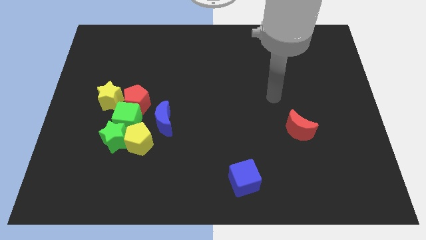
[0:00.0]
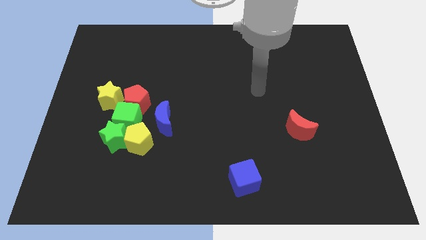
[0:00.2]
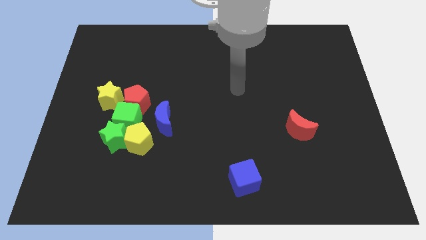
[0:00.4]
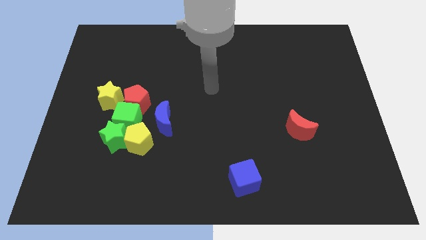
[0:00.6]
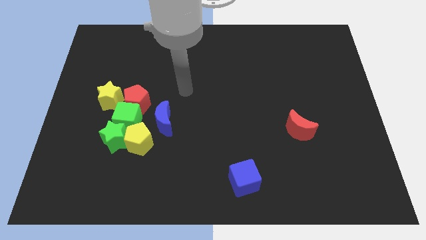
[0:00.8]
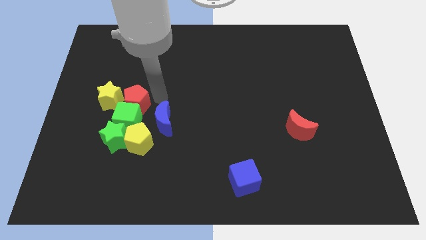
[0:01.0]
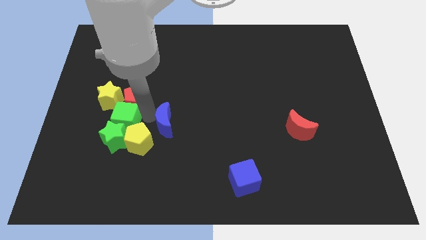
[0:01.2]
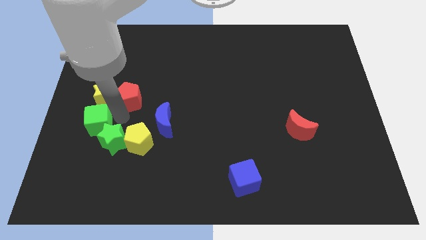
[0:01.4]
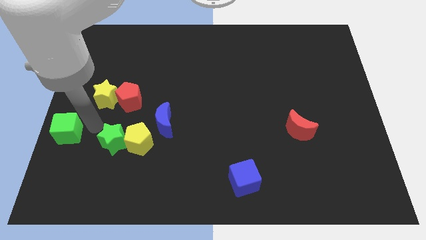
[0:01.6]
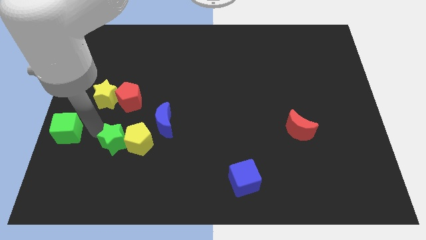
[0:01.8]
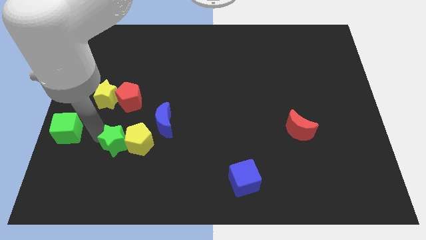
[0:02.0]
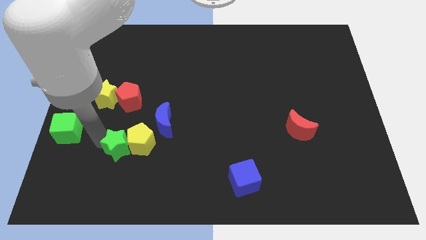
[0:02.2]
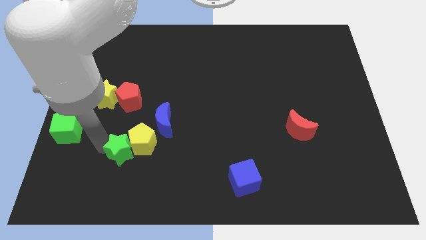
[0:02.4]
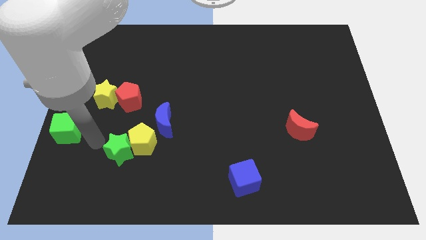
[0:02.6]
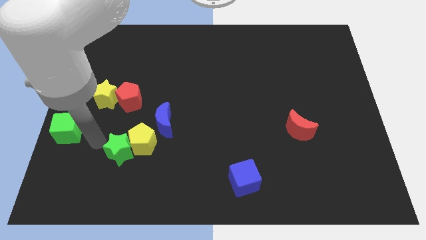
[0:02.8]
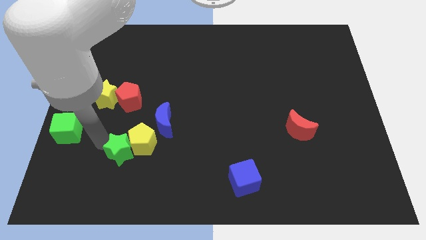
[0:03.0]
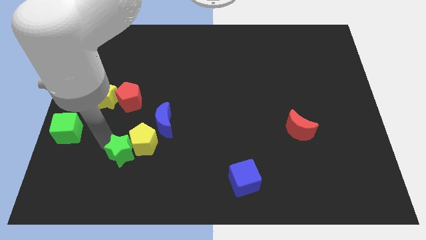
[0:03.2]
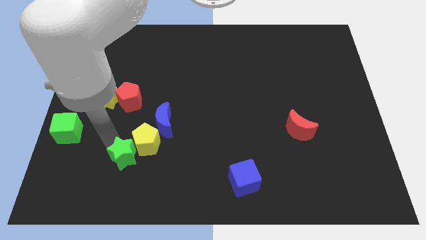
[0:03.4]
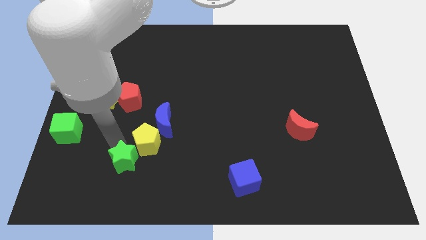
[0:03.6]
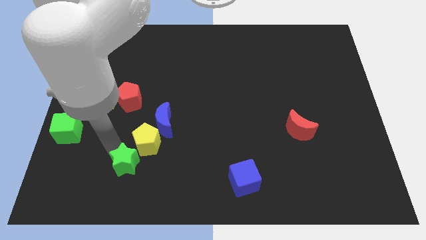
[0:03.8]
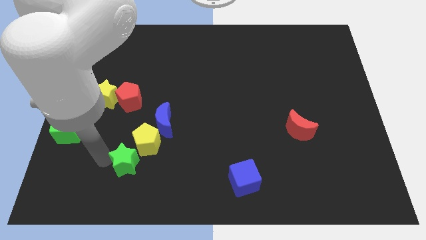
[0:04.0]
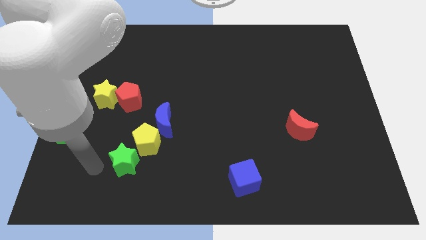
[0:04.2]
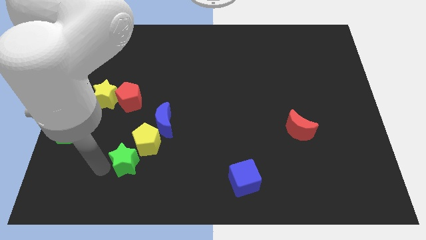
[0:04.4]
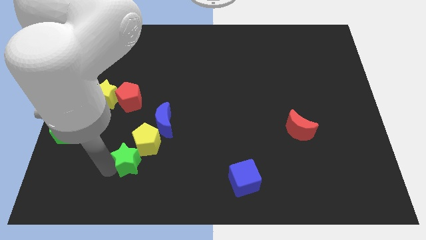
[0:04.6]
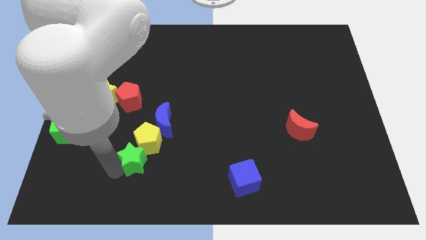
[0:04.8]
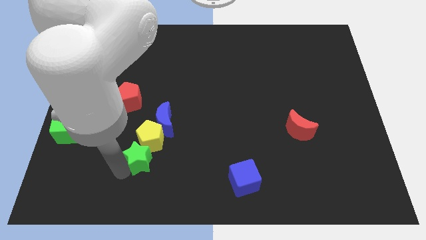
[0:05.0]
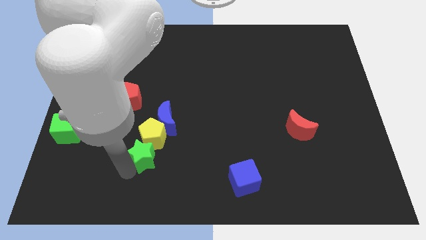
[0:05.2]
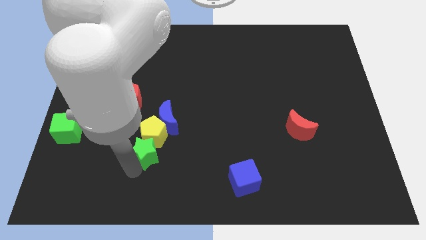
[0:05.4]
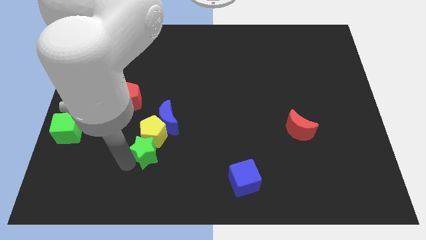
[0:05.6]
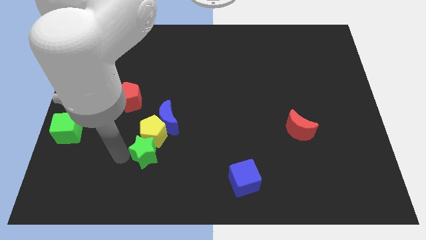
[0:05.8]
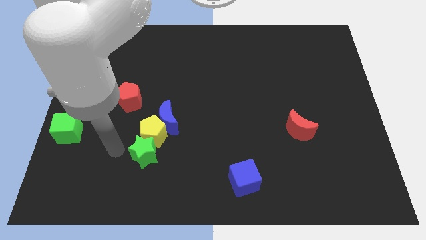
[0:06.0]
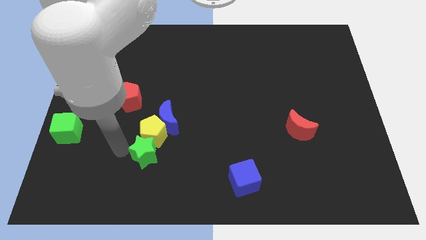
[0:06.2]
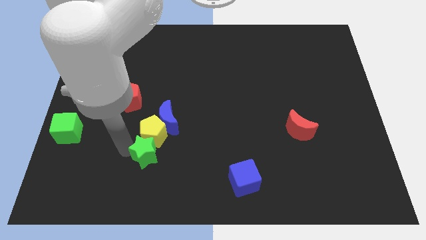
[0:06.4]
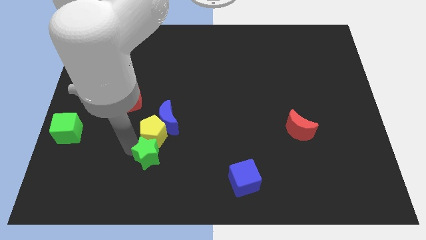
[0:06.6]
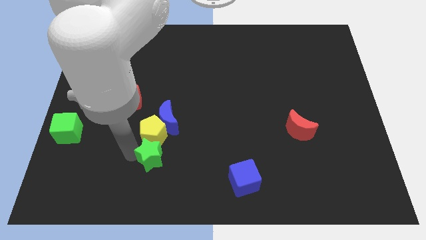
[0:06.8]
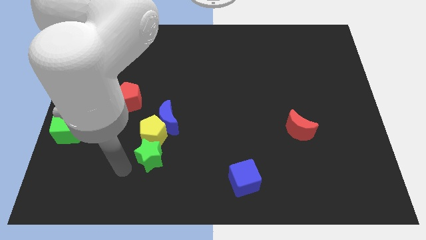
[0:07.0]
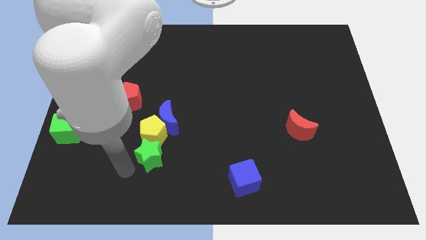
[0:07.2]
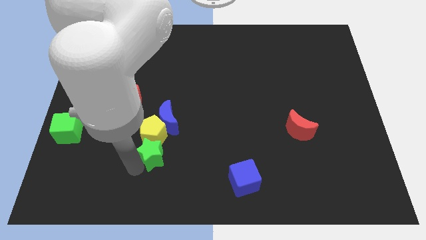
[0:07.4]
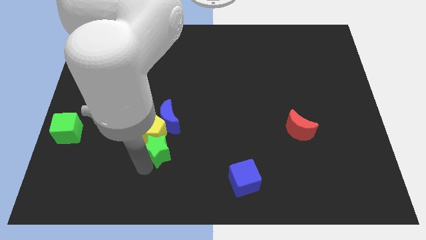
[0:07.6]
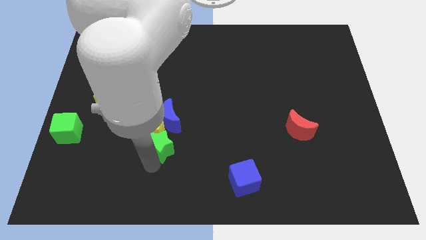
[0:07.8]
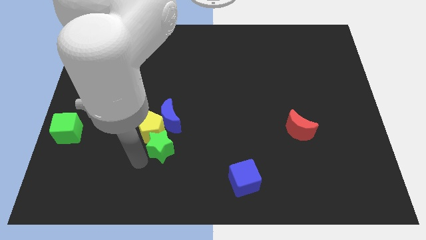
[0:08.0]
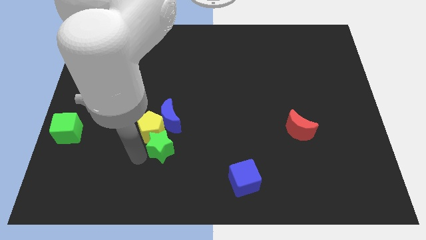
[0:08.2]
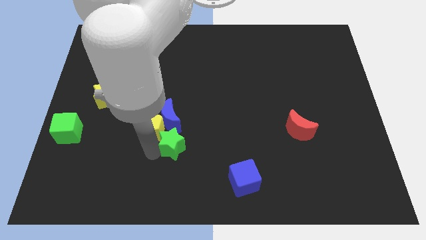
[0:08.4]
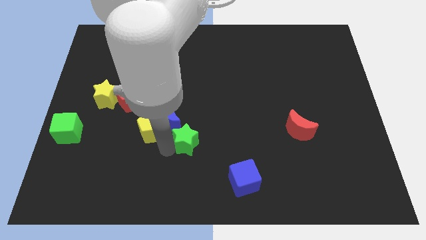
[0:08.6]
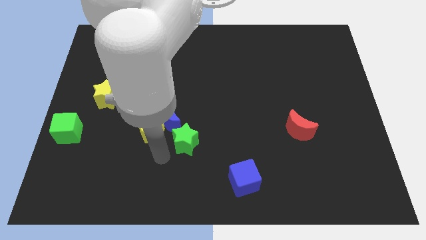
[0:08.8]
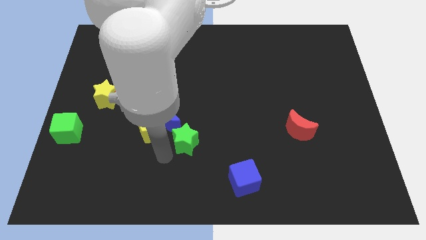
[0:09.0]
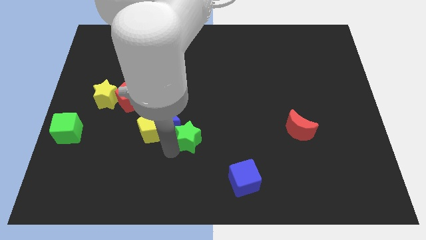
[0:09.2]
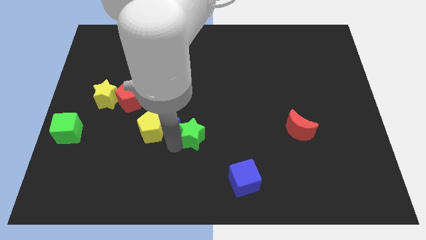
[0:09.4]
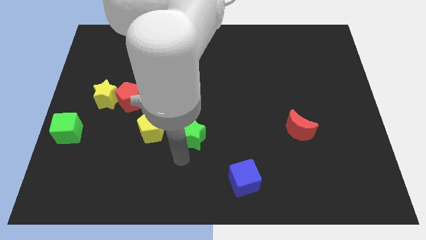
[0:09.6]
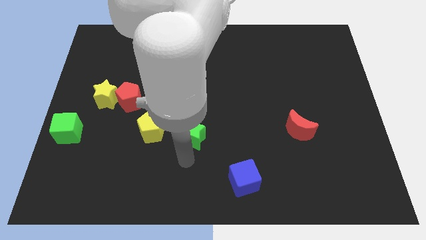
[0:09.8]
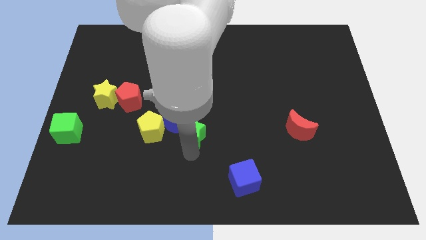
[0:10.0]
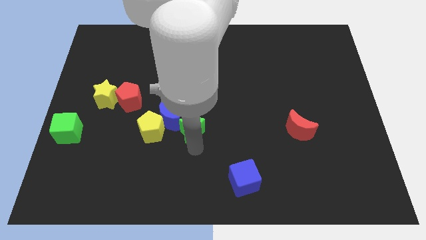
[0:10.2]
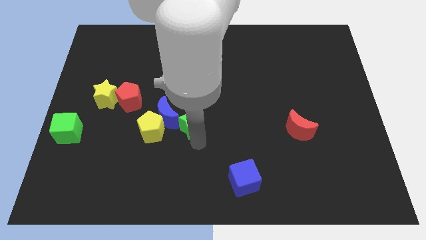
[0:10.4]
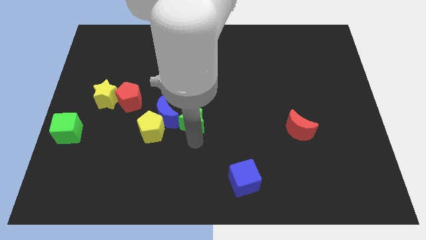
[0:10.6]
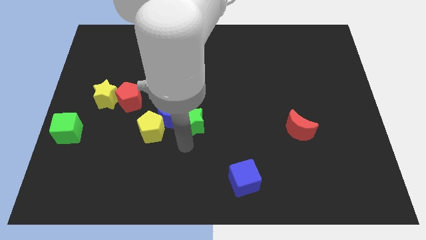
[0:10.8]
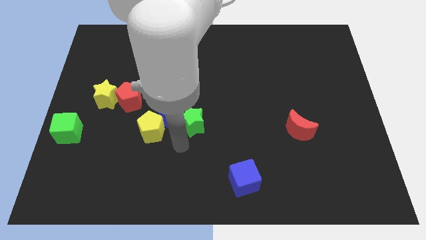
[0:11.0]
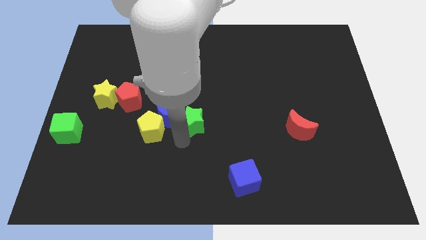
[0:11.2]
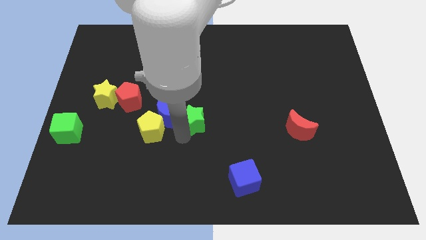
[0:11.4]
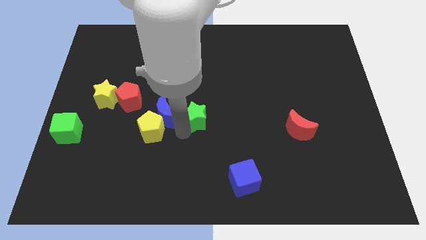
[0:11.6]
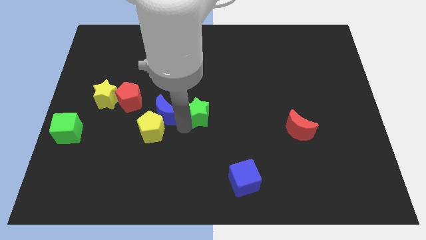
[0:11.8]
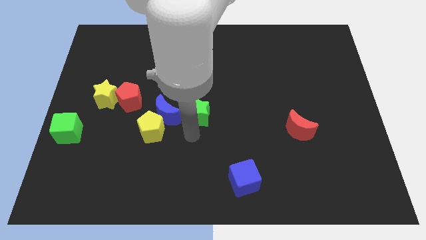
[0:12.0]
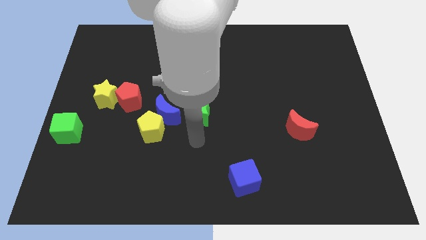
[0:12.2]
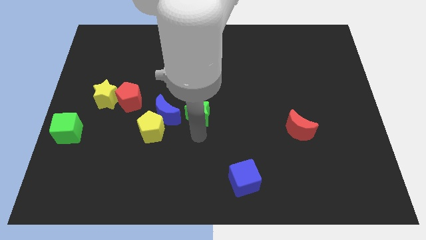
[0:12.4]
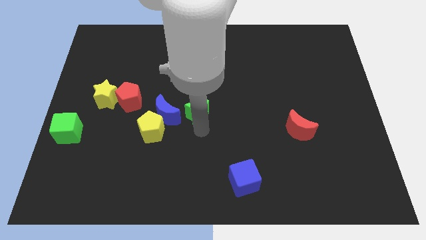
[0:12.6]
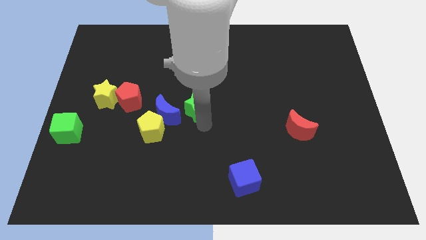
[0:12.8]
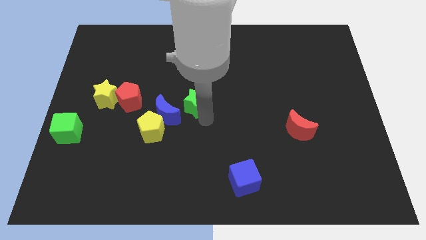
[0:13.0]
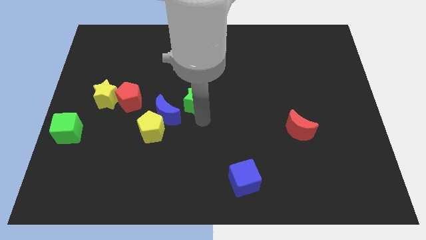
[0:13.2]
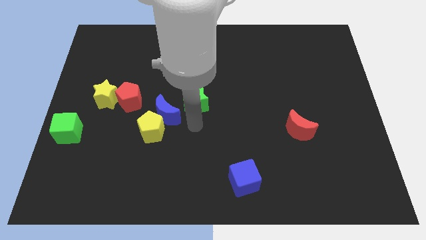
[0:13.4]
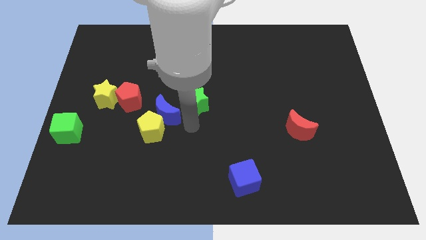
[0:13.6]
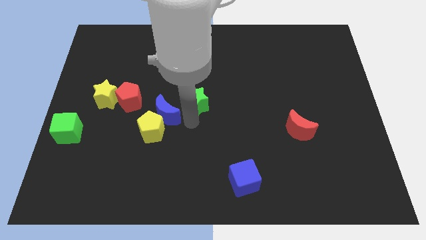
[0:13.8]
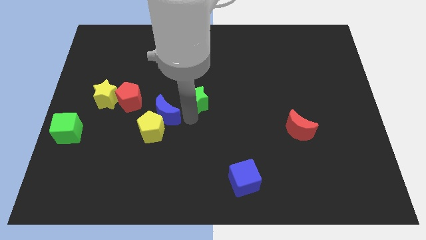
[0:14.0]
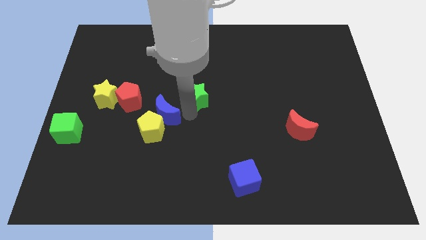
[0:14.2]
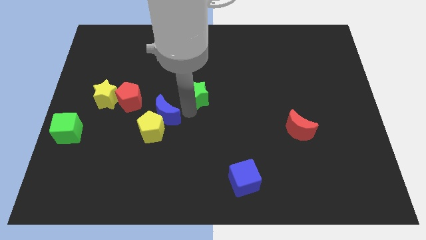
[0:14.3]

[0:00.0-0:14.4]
move the green star up and to the right

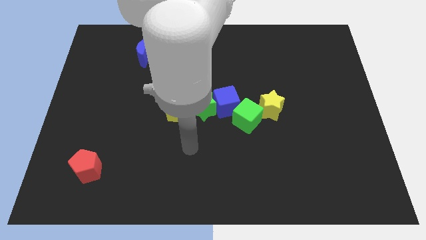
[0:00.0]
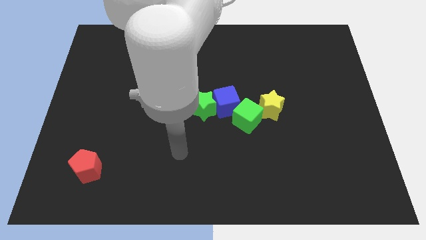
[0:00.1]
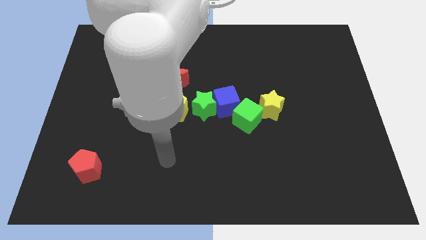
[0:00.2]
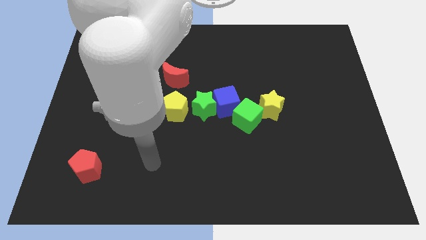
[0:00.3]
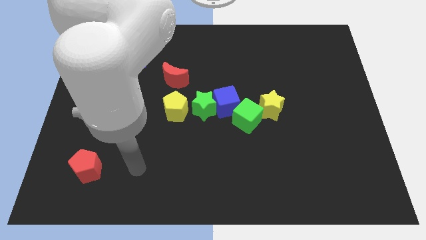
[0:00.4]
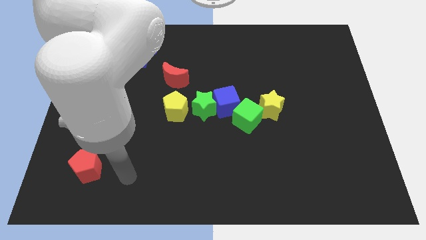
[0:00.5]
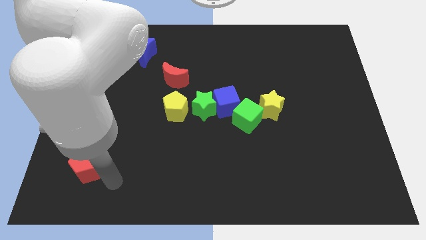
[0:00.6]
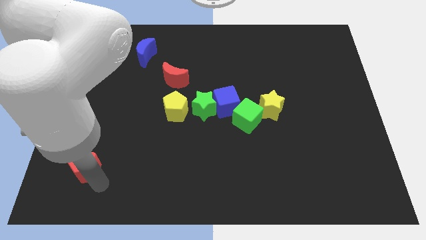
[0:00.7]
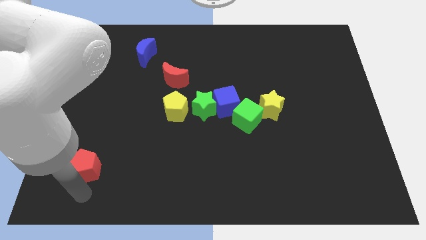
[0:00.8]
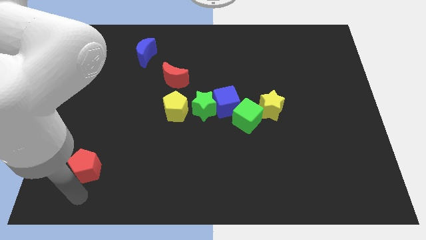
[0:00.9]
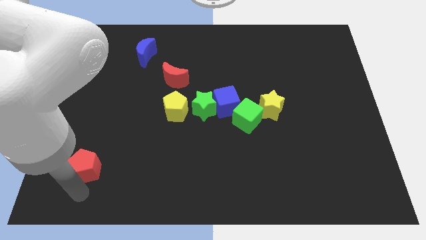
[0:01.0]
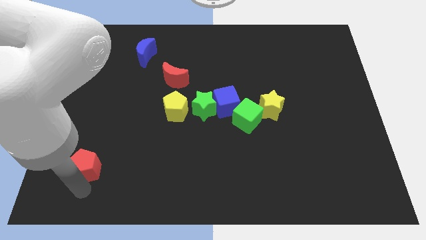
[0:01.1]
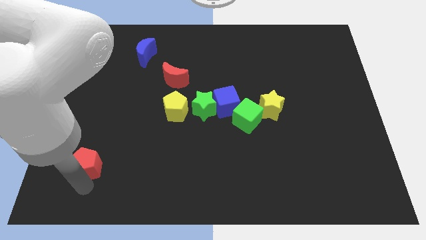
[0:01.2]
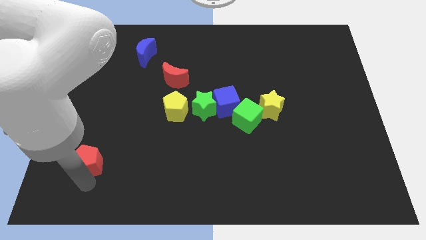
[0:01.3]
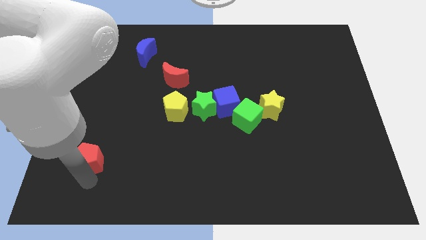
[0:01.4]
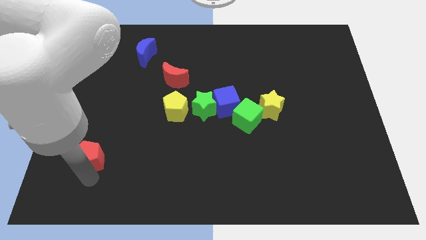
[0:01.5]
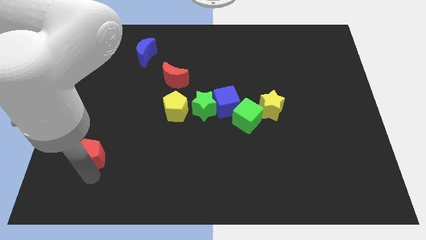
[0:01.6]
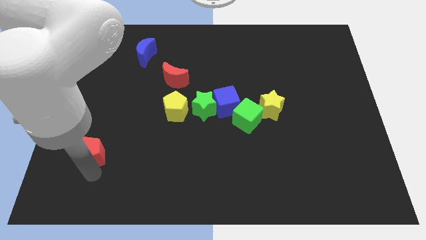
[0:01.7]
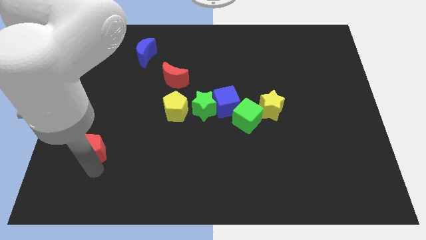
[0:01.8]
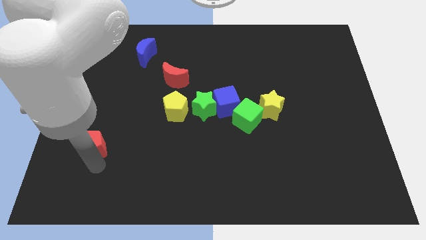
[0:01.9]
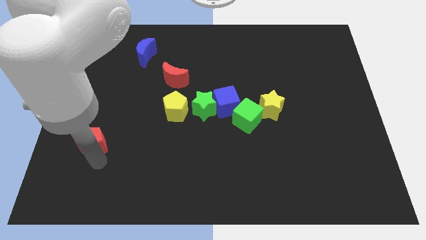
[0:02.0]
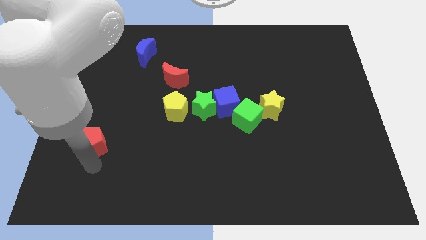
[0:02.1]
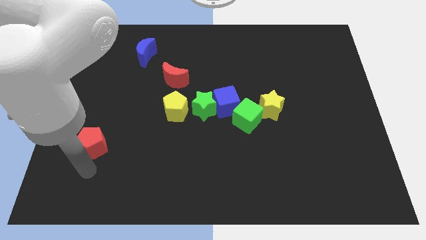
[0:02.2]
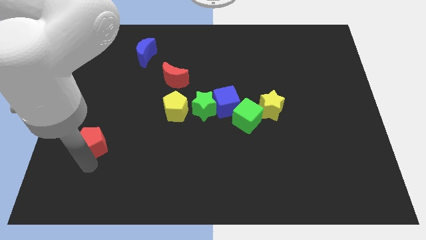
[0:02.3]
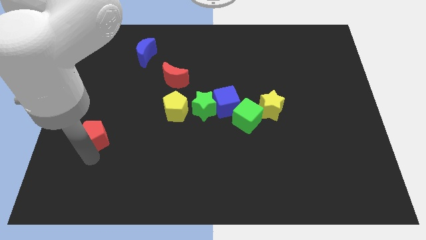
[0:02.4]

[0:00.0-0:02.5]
move the red pentagon slightly upwards
